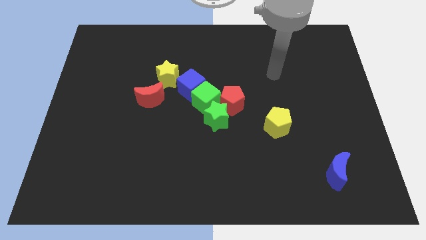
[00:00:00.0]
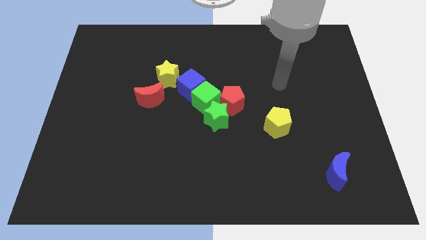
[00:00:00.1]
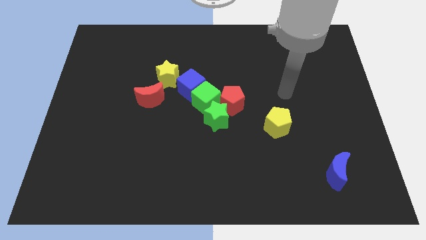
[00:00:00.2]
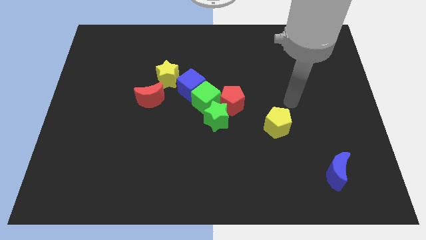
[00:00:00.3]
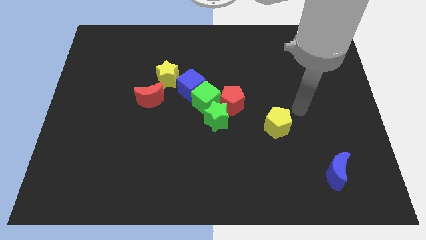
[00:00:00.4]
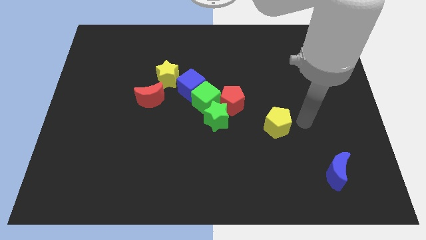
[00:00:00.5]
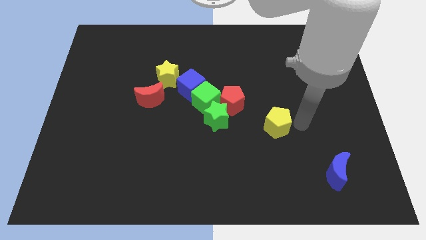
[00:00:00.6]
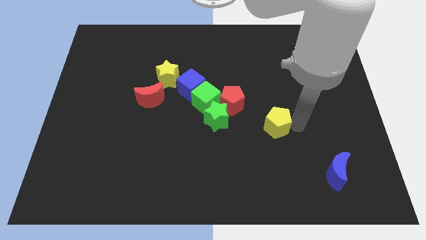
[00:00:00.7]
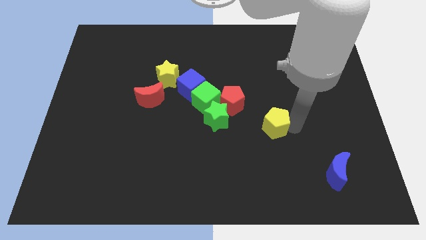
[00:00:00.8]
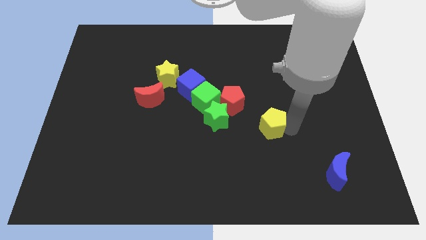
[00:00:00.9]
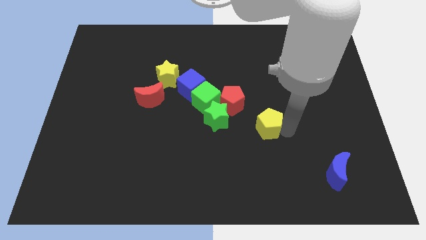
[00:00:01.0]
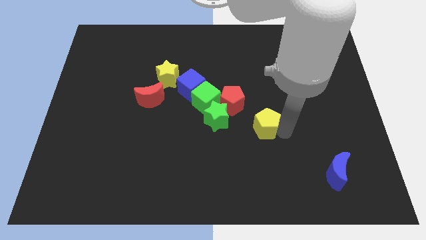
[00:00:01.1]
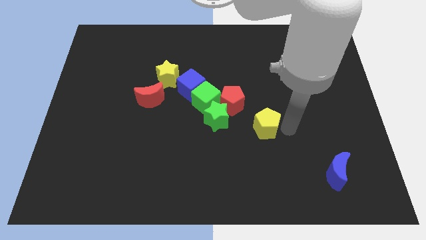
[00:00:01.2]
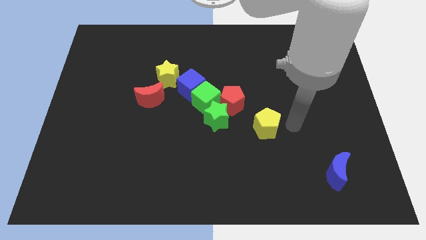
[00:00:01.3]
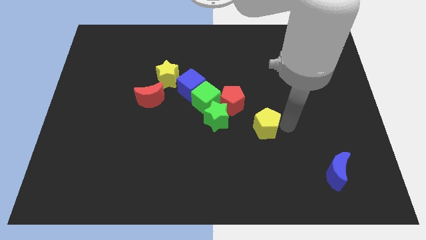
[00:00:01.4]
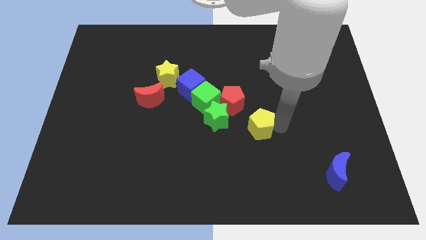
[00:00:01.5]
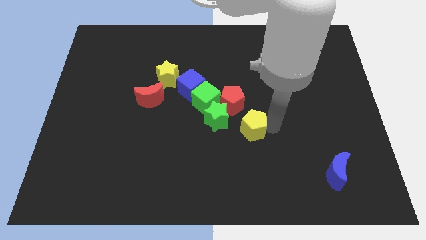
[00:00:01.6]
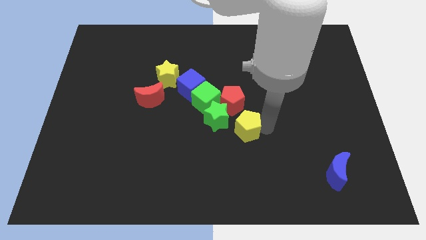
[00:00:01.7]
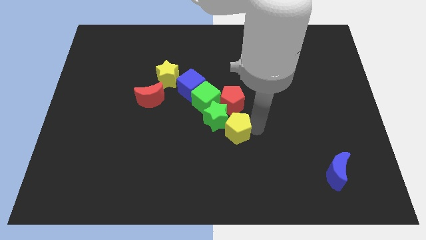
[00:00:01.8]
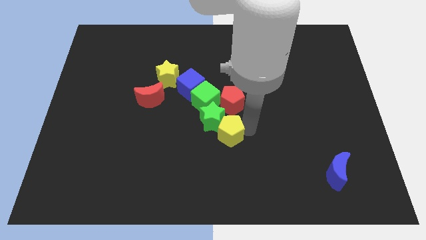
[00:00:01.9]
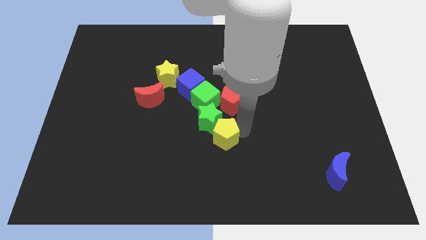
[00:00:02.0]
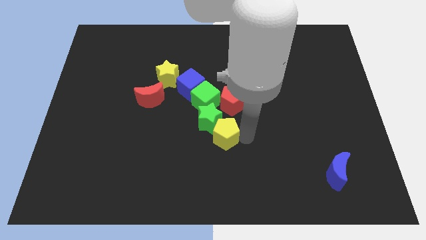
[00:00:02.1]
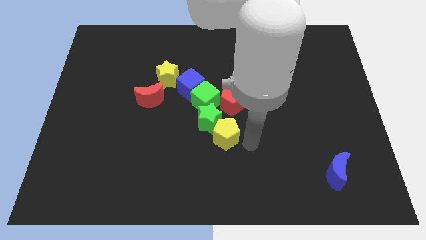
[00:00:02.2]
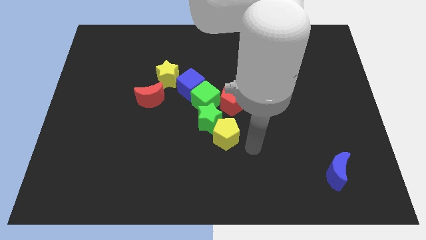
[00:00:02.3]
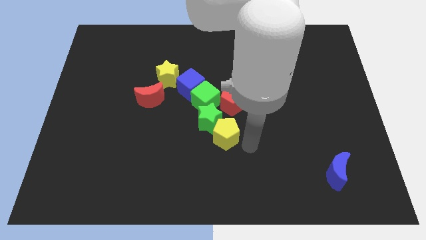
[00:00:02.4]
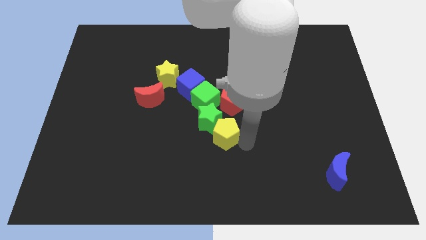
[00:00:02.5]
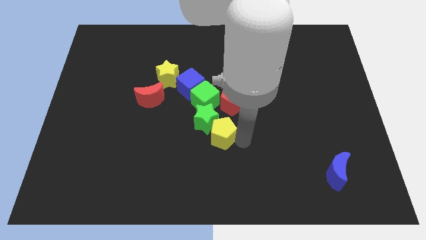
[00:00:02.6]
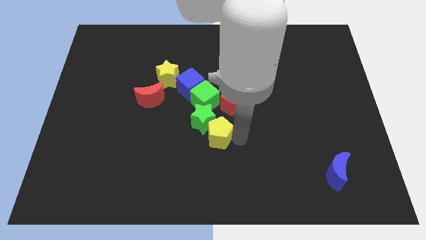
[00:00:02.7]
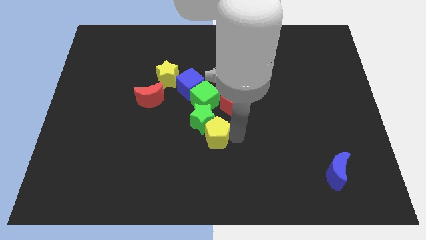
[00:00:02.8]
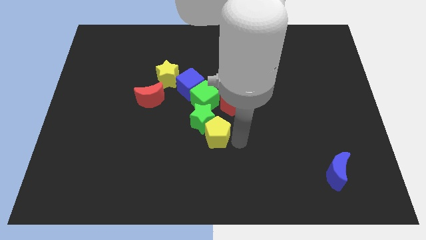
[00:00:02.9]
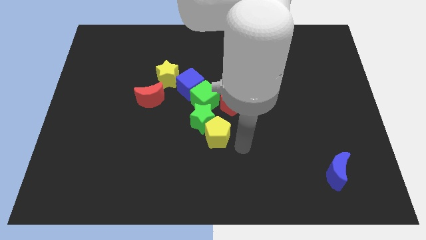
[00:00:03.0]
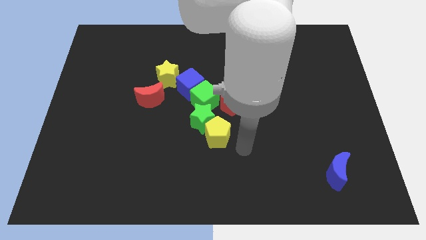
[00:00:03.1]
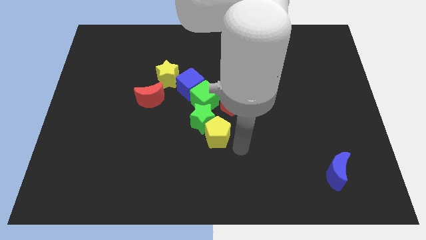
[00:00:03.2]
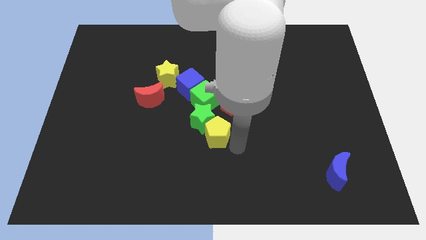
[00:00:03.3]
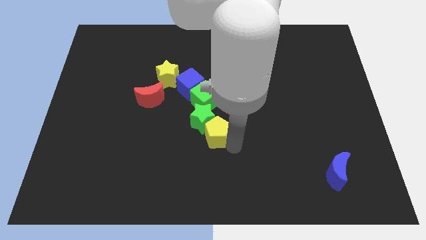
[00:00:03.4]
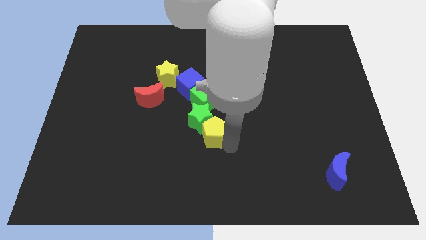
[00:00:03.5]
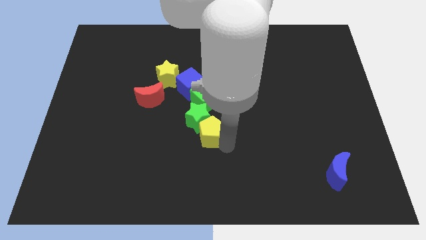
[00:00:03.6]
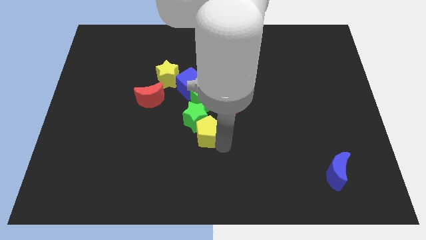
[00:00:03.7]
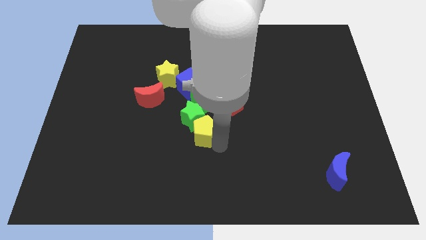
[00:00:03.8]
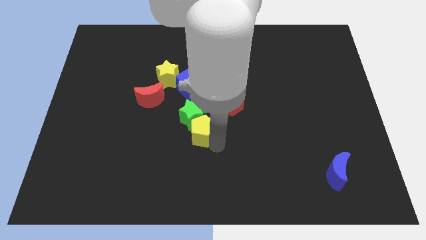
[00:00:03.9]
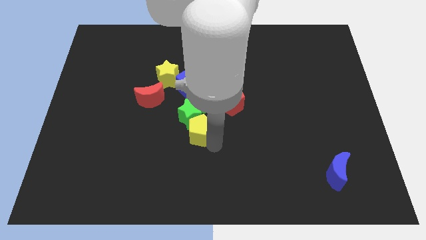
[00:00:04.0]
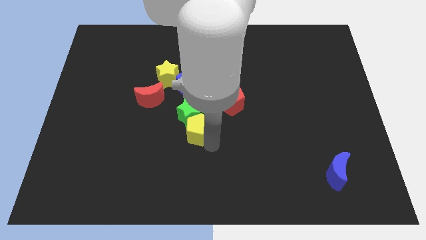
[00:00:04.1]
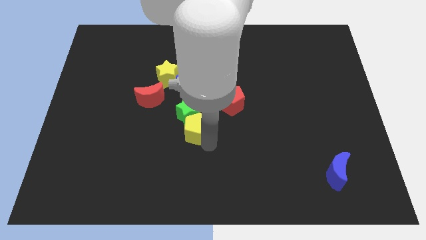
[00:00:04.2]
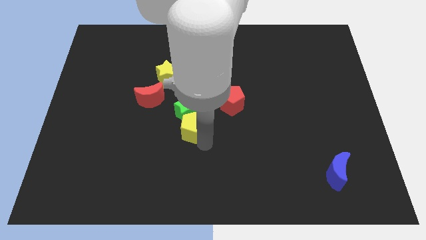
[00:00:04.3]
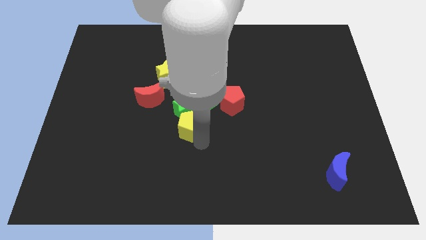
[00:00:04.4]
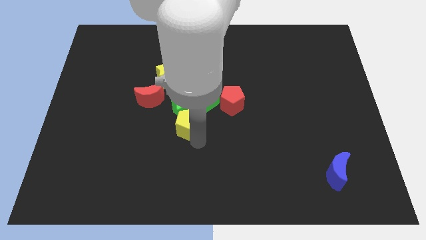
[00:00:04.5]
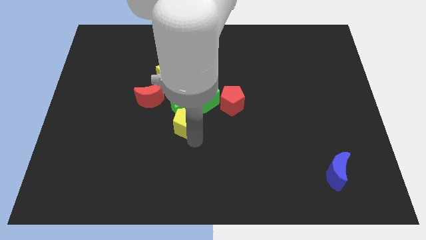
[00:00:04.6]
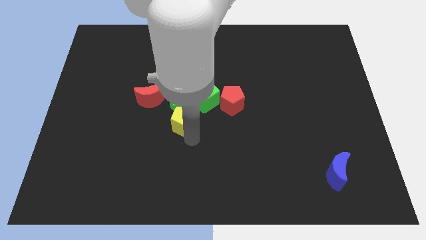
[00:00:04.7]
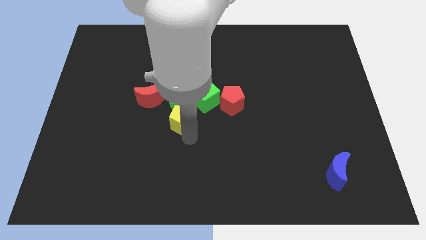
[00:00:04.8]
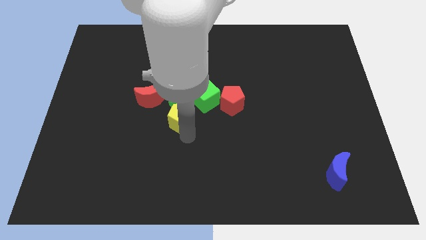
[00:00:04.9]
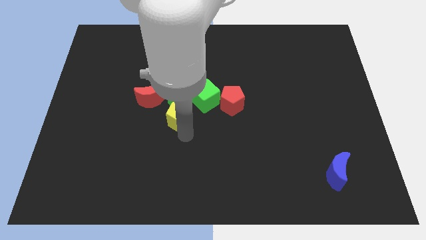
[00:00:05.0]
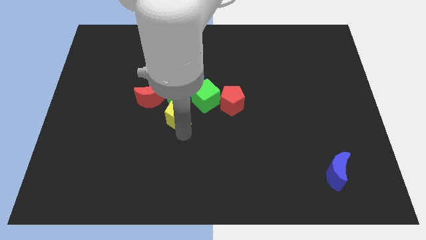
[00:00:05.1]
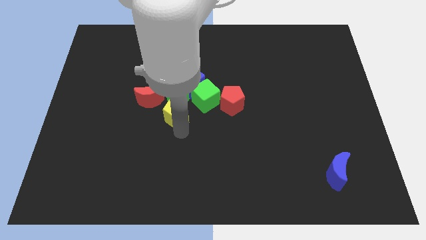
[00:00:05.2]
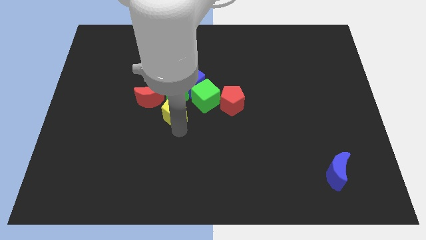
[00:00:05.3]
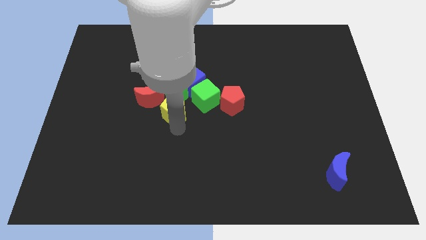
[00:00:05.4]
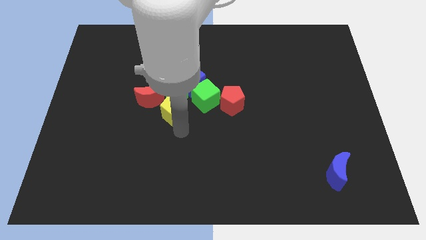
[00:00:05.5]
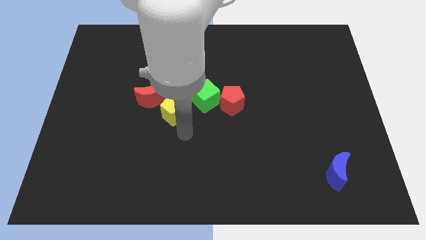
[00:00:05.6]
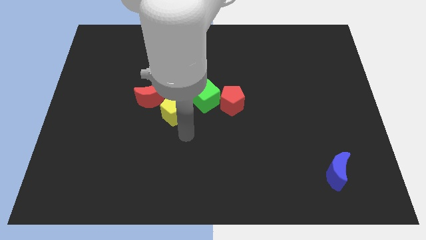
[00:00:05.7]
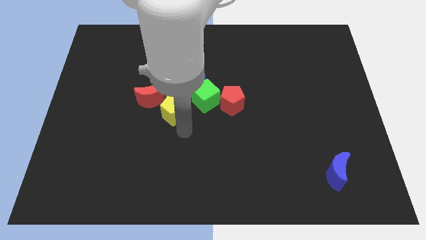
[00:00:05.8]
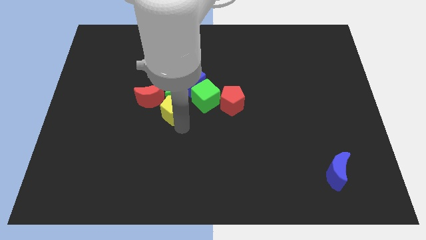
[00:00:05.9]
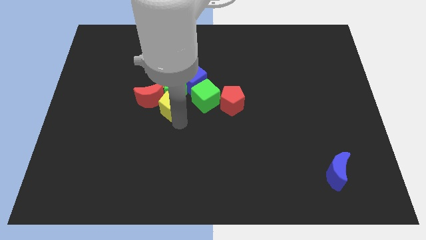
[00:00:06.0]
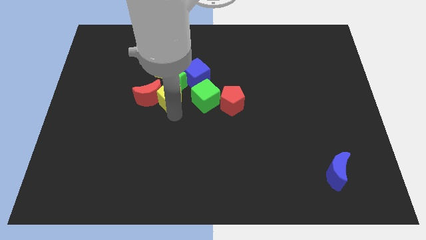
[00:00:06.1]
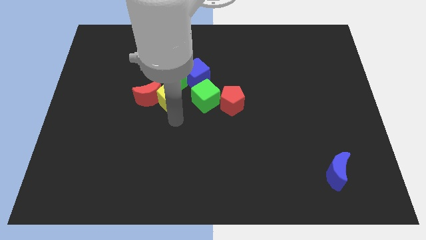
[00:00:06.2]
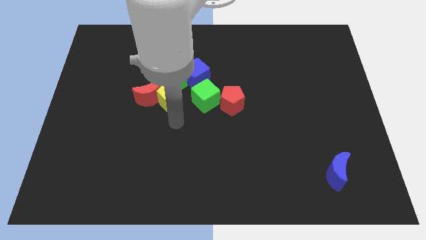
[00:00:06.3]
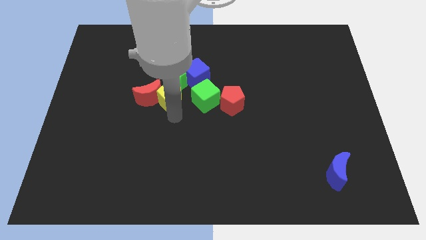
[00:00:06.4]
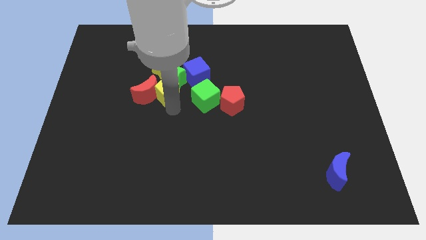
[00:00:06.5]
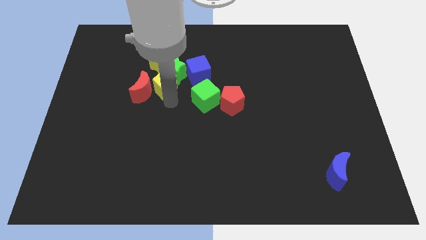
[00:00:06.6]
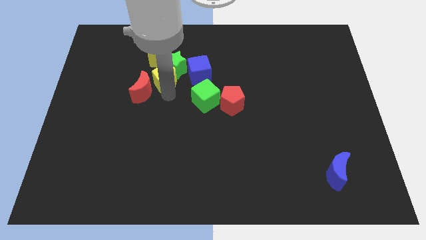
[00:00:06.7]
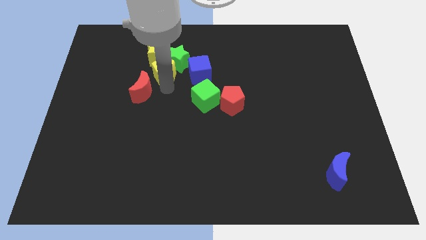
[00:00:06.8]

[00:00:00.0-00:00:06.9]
slide the yellow pentagon close to the yellow star

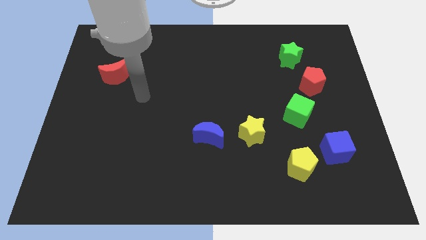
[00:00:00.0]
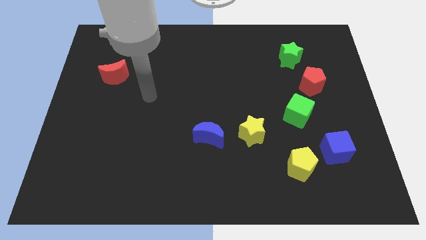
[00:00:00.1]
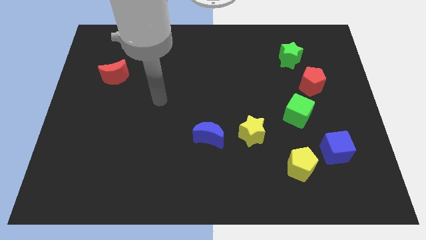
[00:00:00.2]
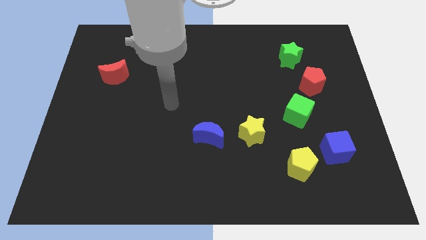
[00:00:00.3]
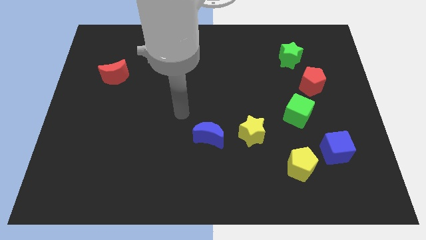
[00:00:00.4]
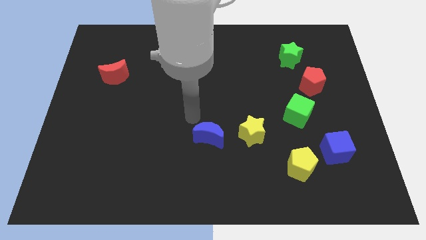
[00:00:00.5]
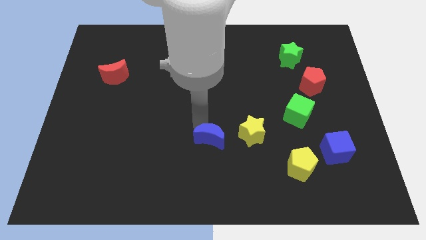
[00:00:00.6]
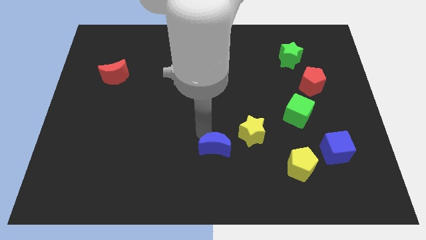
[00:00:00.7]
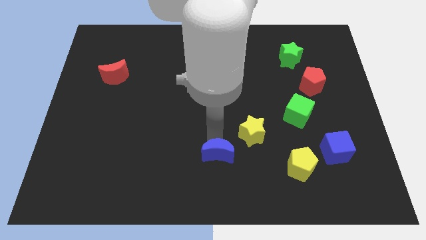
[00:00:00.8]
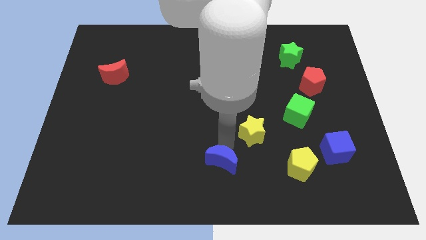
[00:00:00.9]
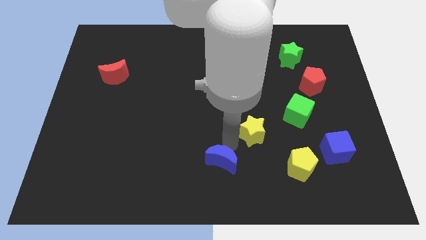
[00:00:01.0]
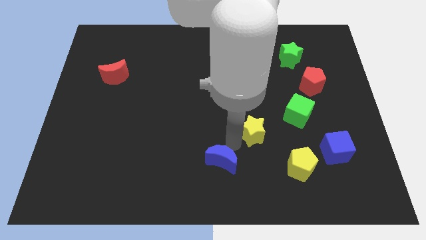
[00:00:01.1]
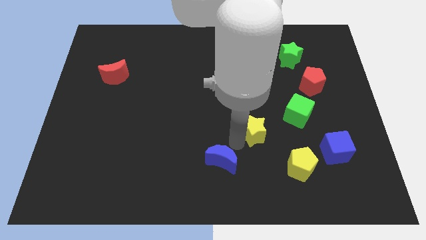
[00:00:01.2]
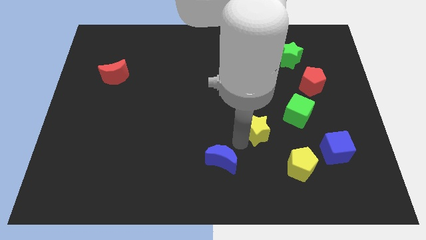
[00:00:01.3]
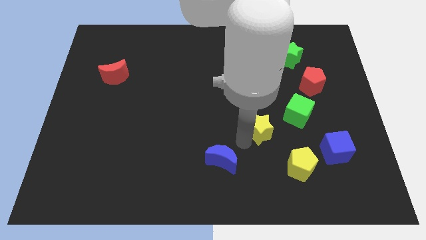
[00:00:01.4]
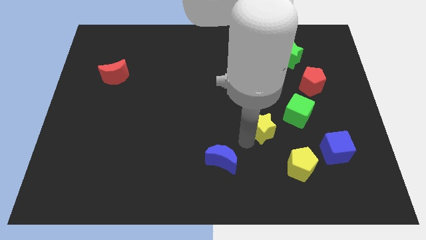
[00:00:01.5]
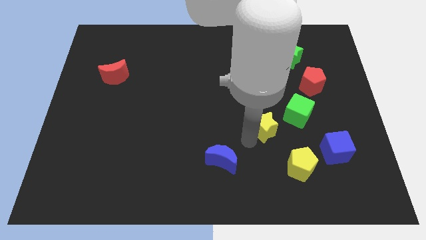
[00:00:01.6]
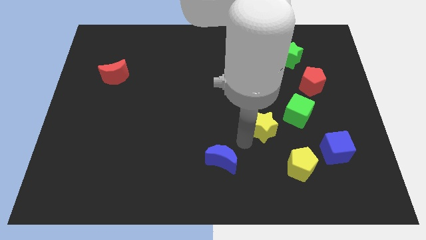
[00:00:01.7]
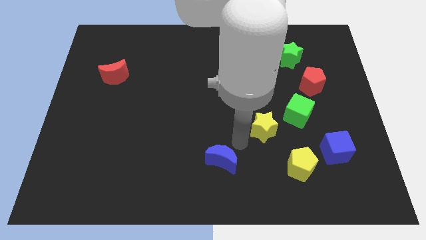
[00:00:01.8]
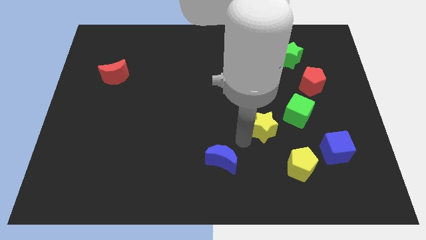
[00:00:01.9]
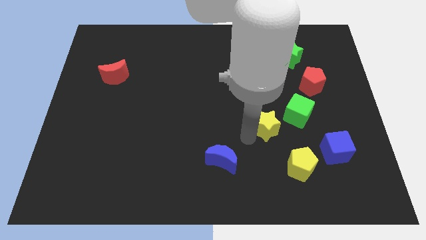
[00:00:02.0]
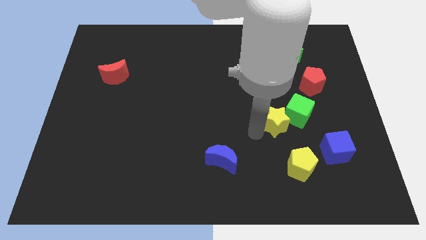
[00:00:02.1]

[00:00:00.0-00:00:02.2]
push the yellow star towards the green cube
